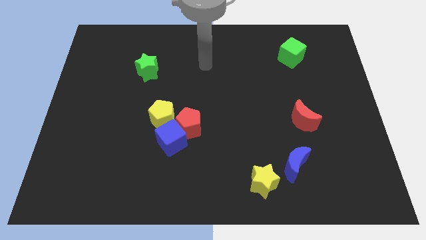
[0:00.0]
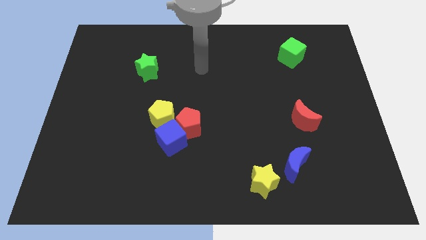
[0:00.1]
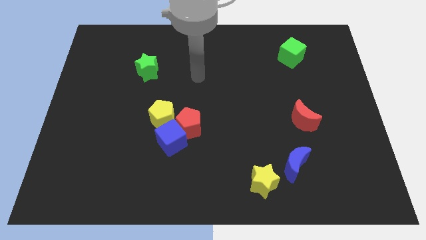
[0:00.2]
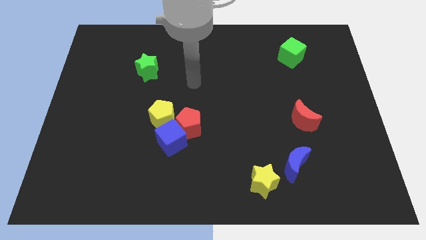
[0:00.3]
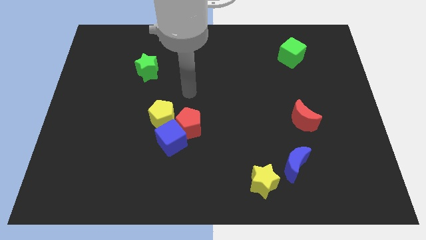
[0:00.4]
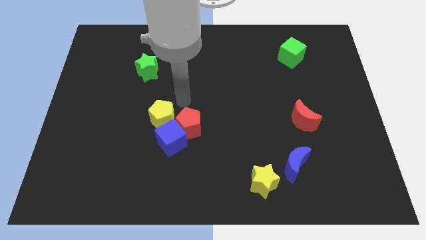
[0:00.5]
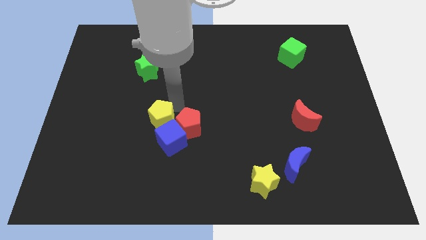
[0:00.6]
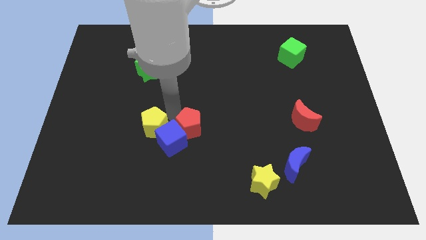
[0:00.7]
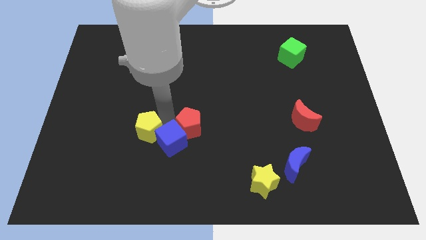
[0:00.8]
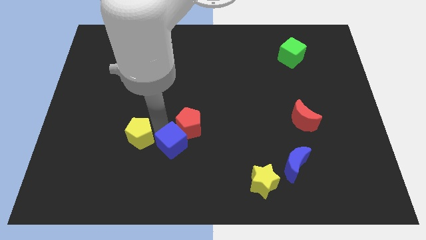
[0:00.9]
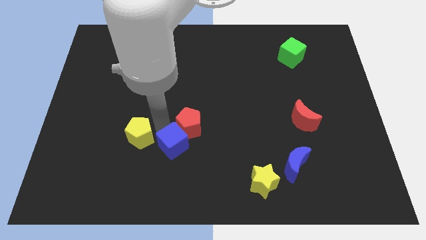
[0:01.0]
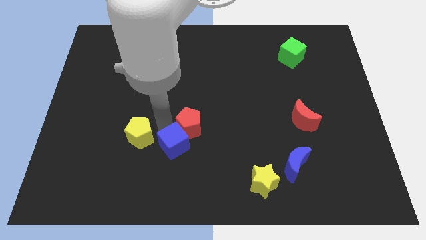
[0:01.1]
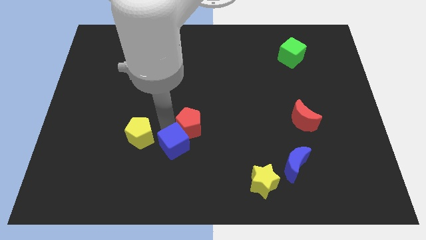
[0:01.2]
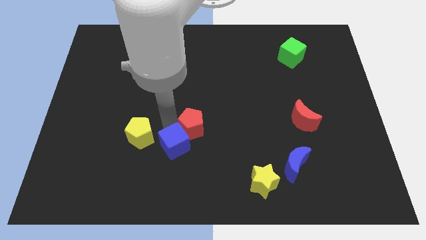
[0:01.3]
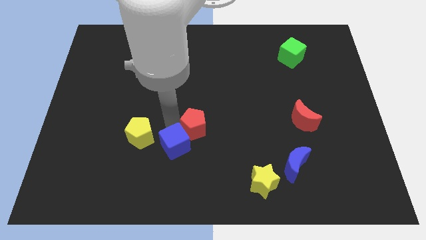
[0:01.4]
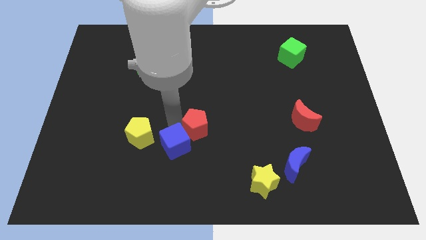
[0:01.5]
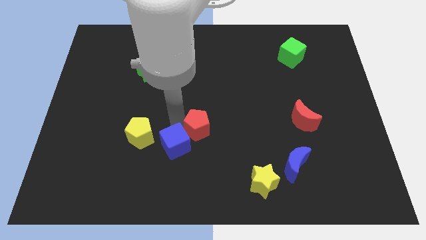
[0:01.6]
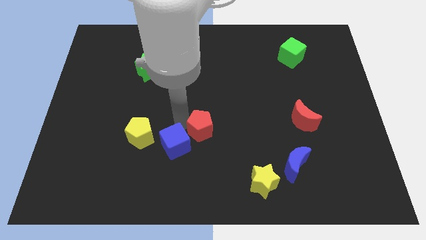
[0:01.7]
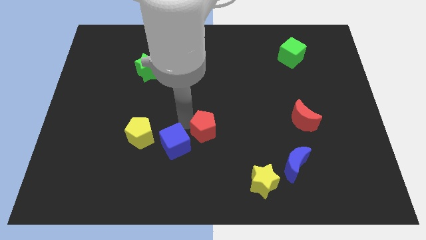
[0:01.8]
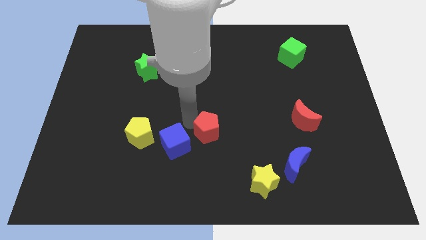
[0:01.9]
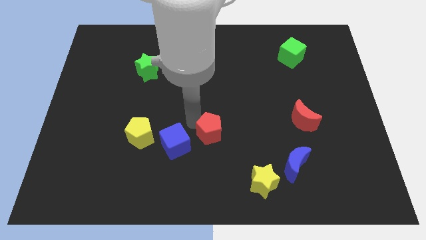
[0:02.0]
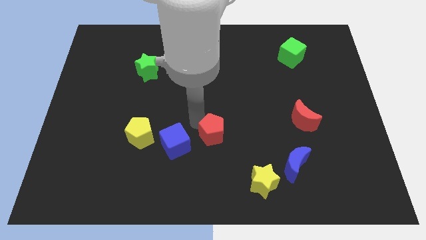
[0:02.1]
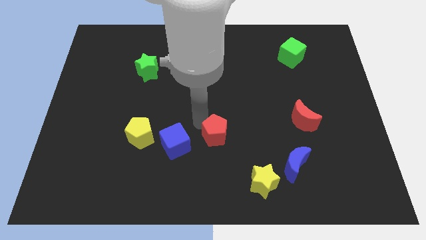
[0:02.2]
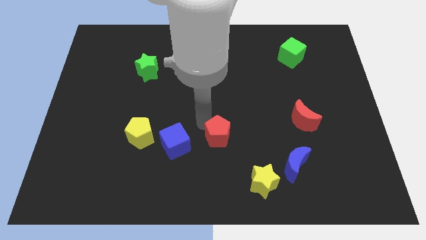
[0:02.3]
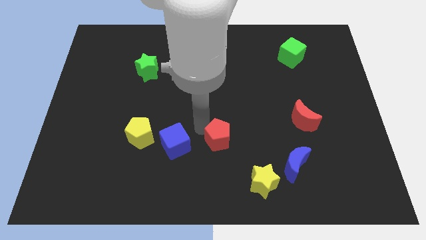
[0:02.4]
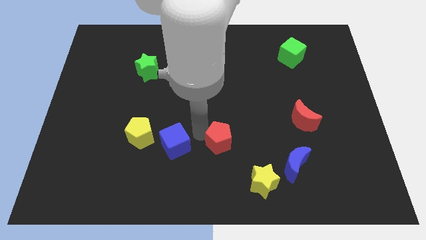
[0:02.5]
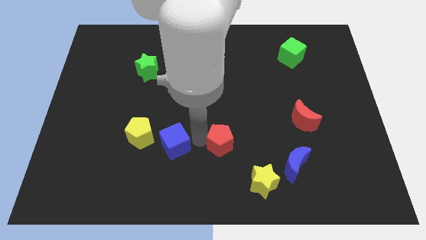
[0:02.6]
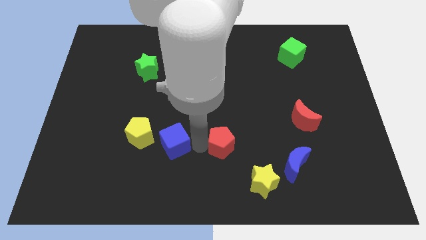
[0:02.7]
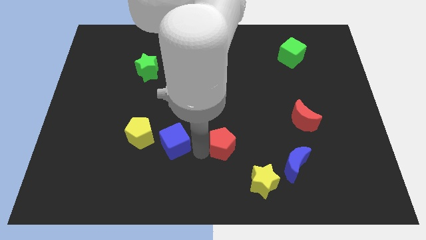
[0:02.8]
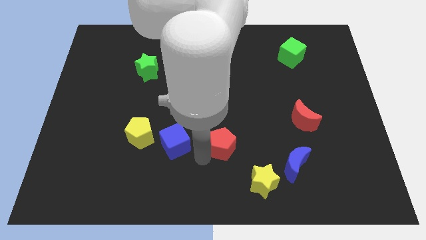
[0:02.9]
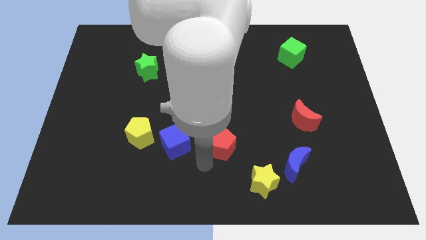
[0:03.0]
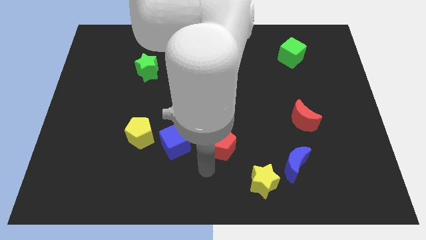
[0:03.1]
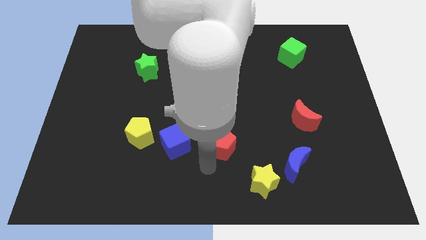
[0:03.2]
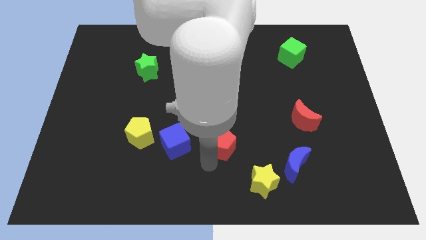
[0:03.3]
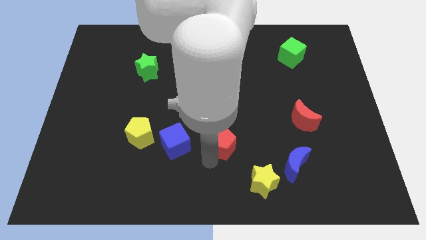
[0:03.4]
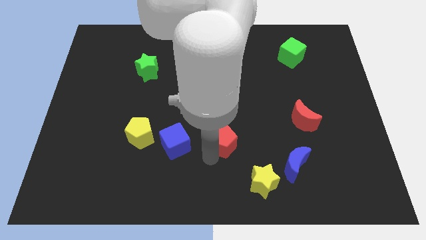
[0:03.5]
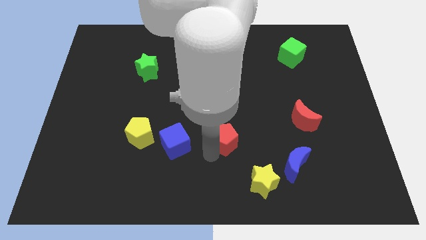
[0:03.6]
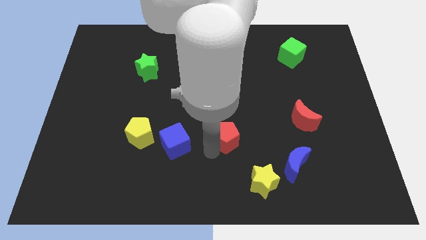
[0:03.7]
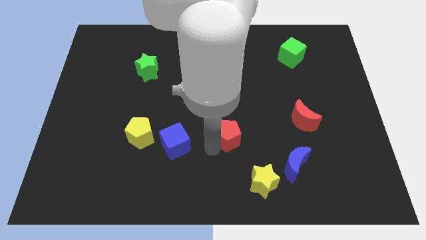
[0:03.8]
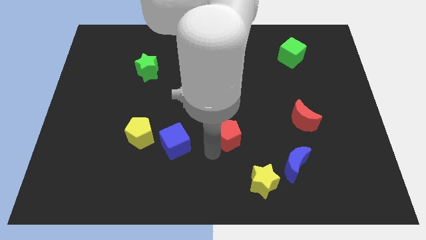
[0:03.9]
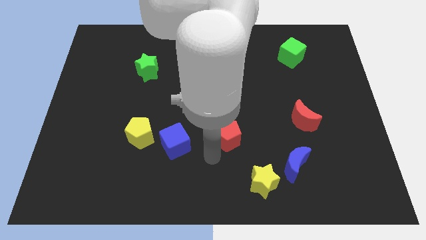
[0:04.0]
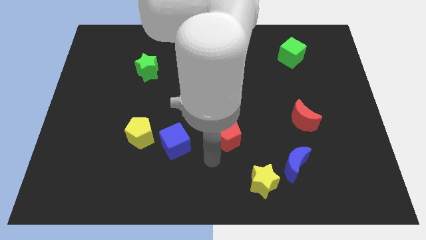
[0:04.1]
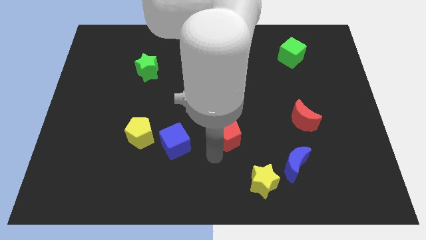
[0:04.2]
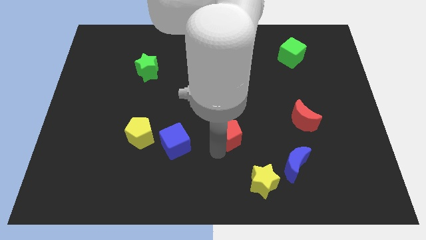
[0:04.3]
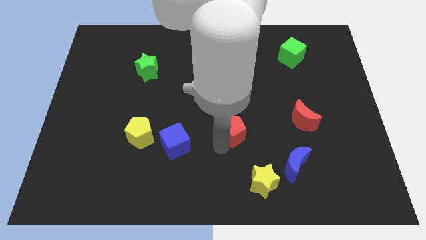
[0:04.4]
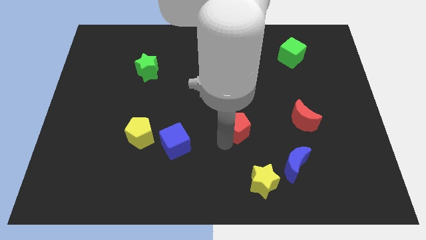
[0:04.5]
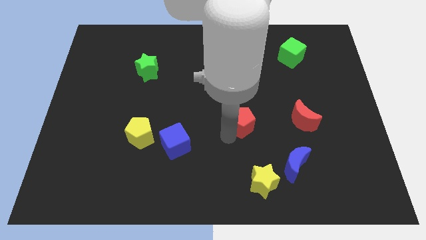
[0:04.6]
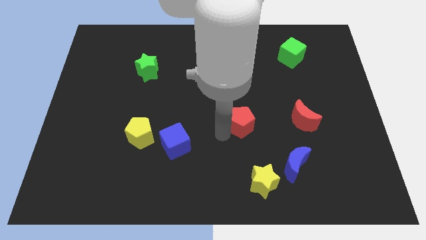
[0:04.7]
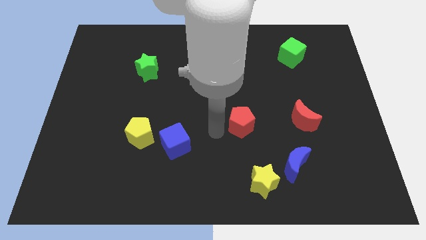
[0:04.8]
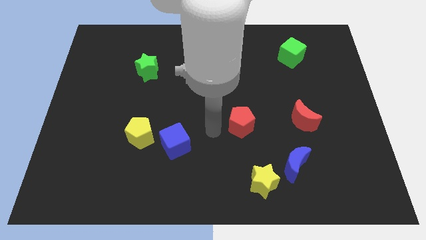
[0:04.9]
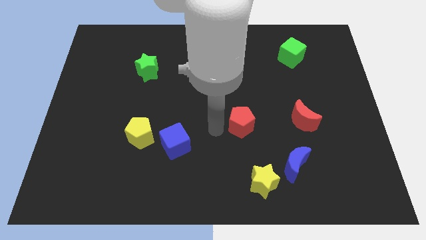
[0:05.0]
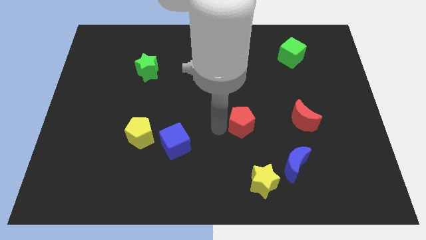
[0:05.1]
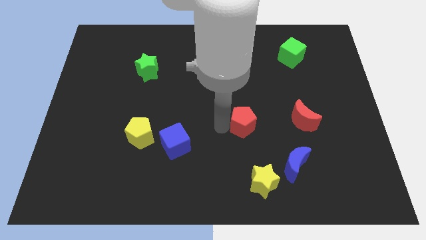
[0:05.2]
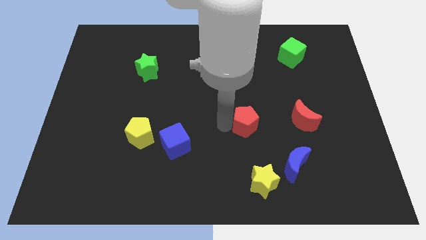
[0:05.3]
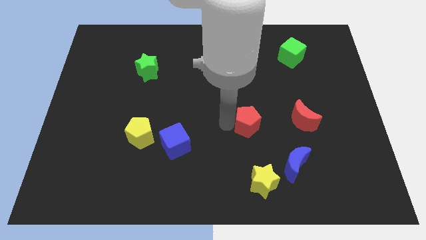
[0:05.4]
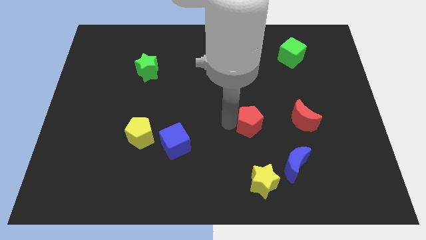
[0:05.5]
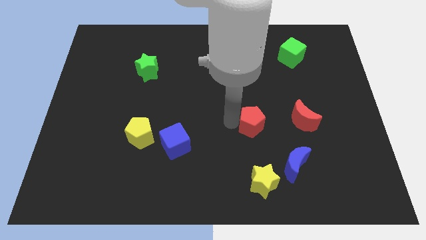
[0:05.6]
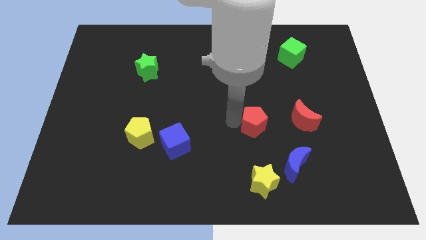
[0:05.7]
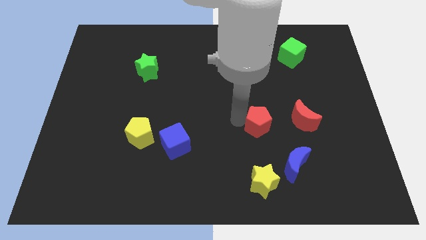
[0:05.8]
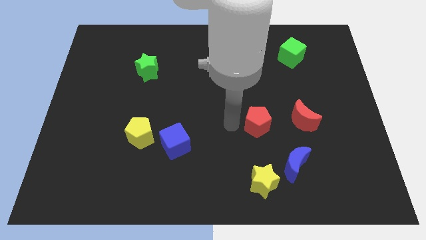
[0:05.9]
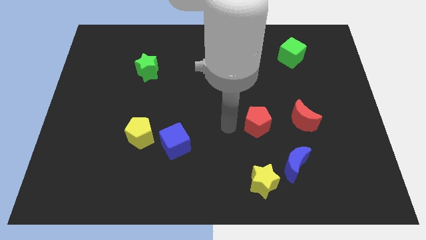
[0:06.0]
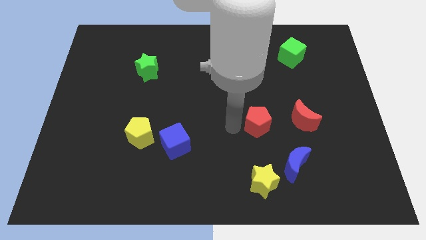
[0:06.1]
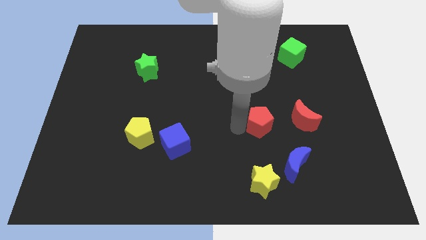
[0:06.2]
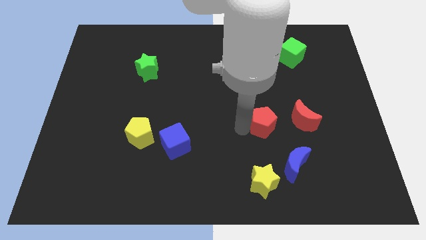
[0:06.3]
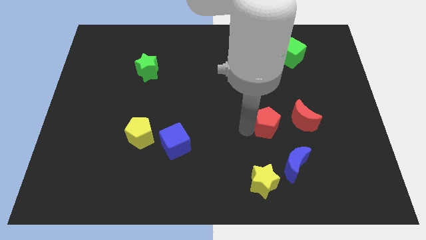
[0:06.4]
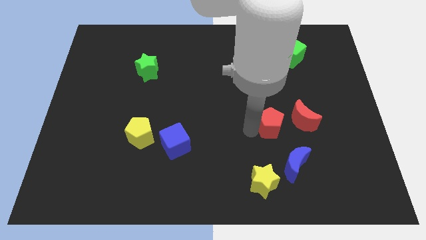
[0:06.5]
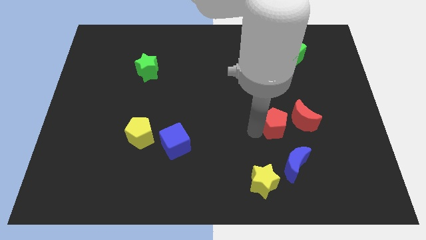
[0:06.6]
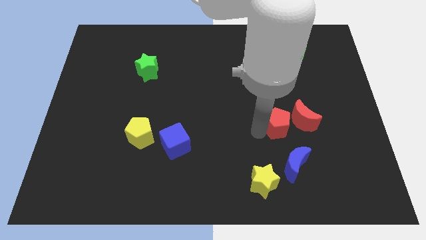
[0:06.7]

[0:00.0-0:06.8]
move the red pentagon to the red moon

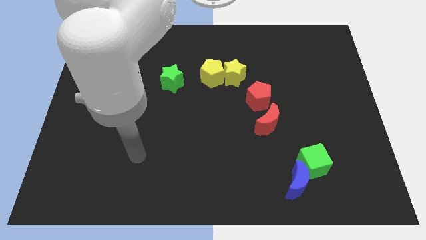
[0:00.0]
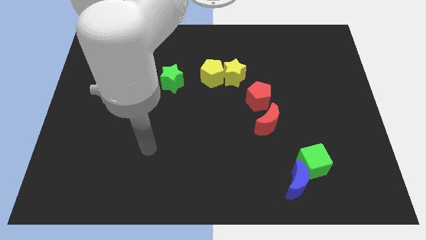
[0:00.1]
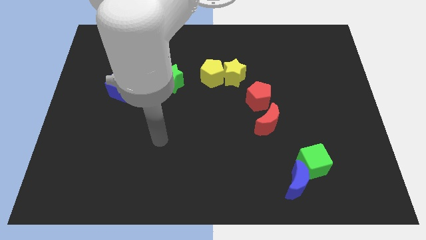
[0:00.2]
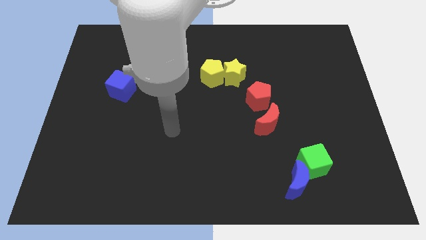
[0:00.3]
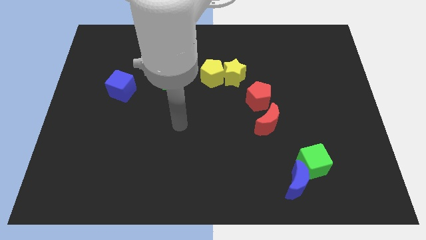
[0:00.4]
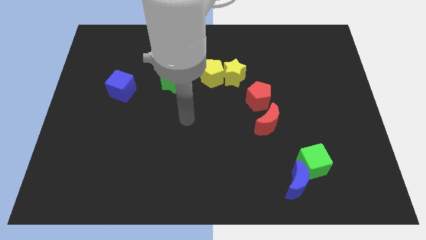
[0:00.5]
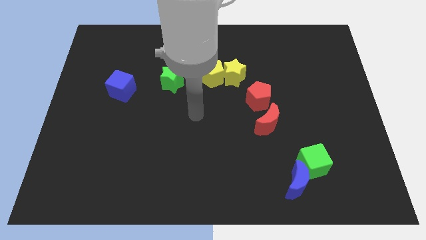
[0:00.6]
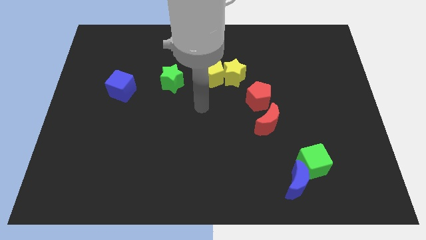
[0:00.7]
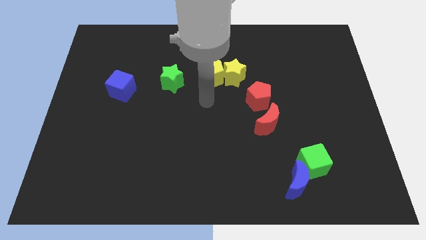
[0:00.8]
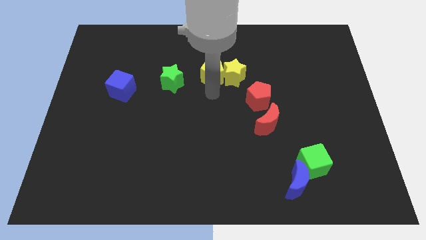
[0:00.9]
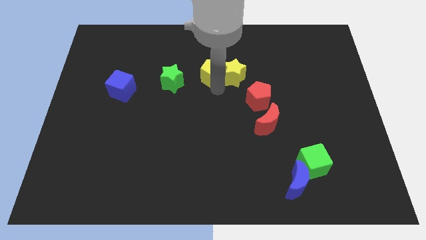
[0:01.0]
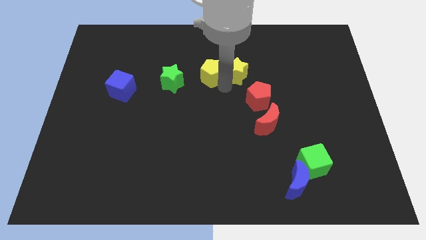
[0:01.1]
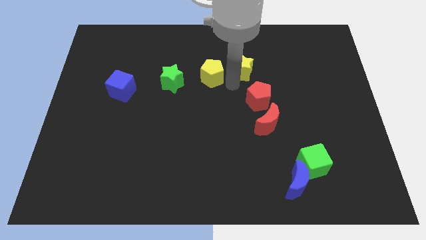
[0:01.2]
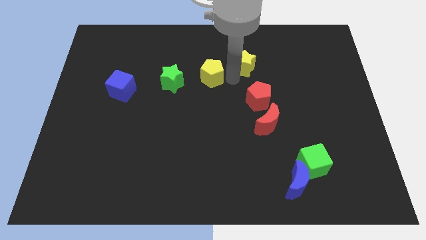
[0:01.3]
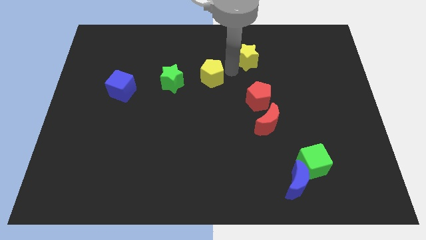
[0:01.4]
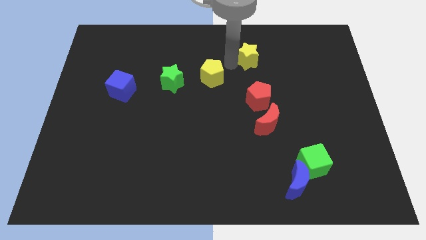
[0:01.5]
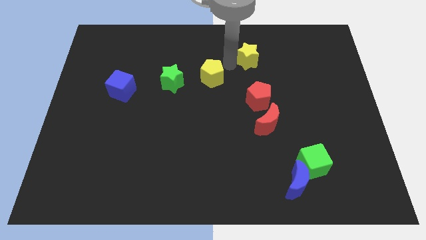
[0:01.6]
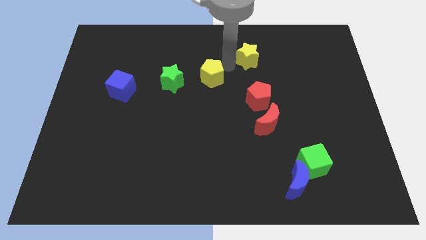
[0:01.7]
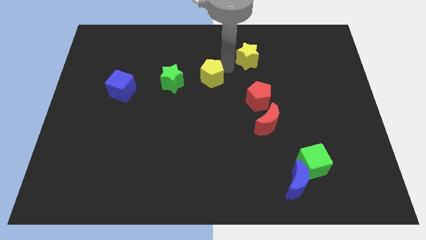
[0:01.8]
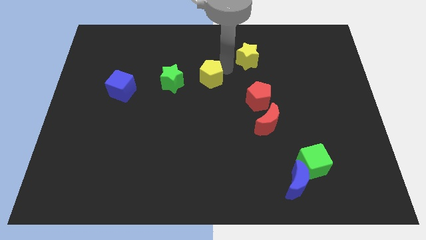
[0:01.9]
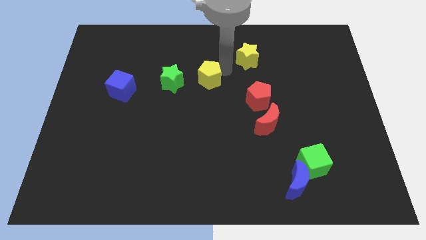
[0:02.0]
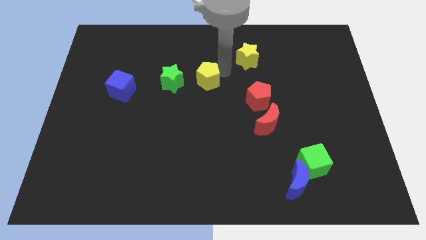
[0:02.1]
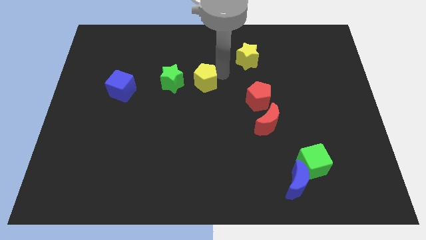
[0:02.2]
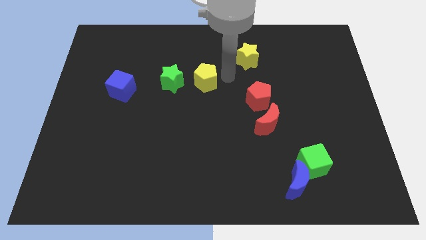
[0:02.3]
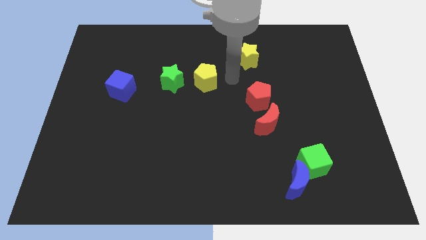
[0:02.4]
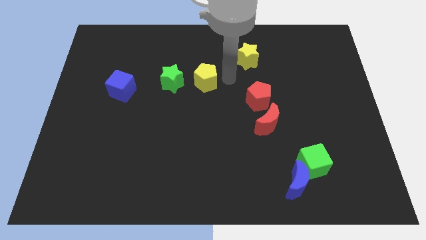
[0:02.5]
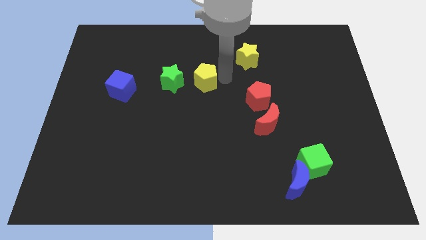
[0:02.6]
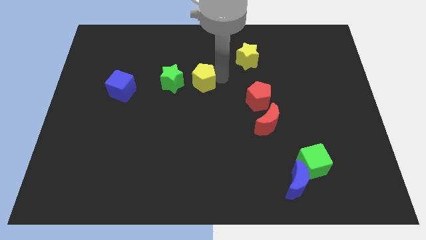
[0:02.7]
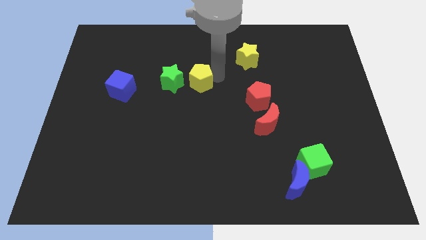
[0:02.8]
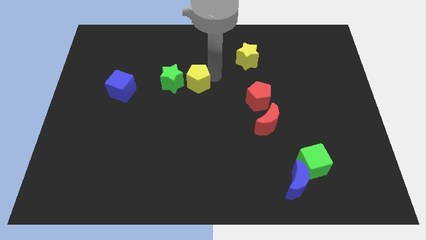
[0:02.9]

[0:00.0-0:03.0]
put the yellow pentagon towards the green star
